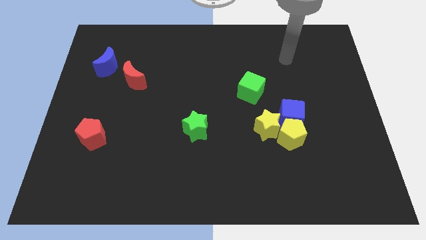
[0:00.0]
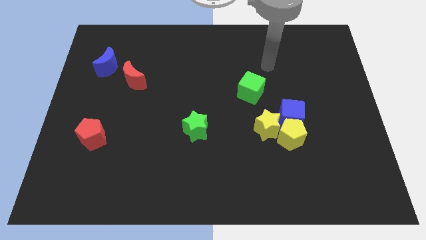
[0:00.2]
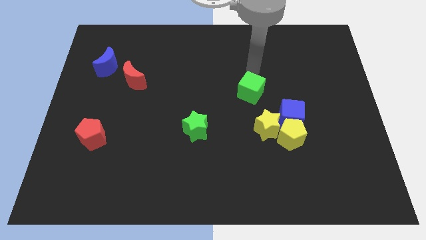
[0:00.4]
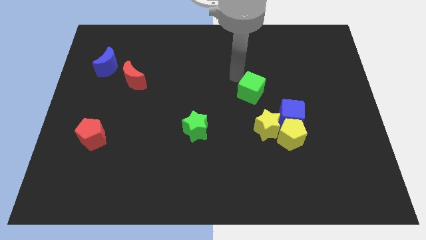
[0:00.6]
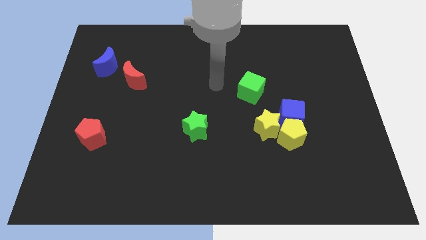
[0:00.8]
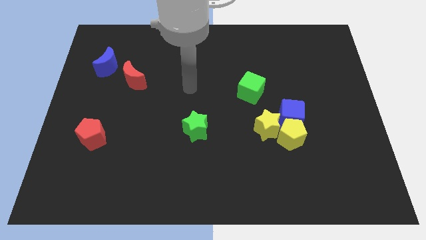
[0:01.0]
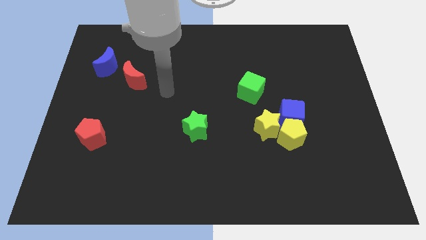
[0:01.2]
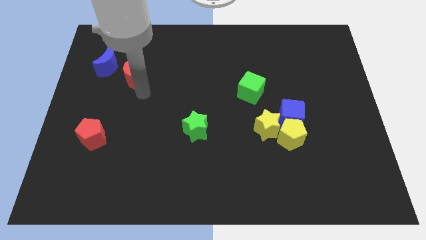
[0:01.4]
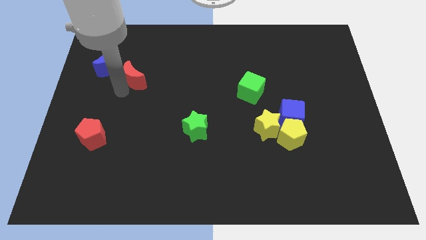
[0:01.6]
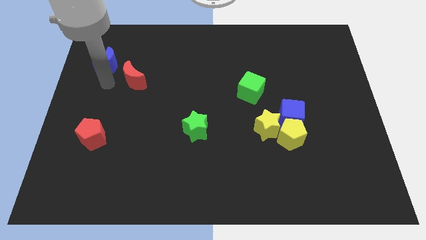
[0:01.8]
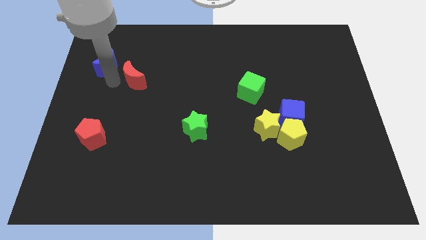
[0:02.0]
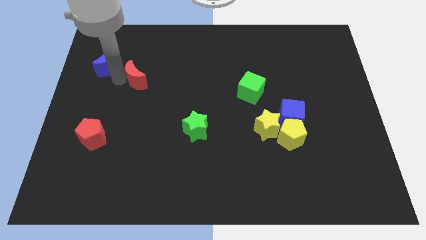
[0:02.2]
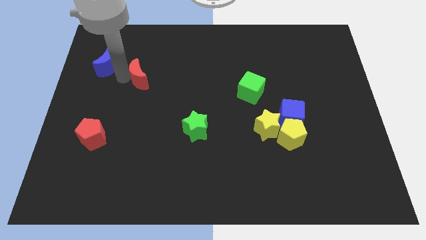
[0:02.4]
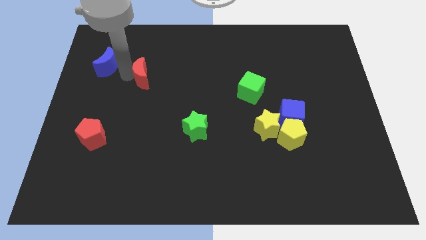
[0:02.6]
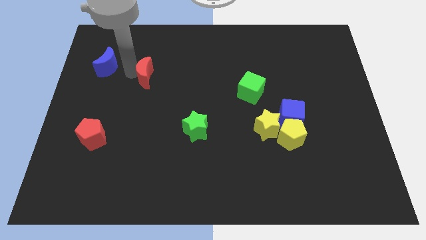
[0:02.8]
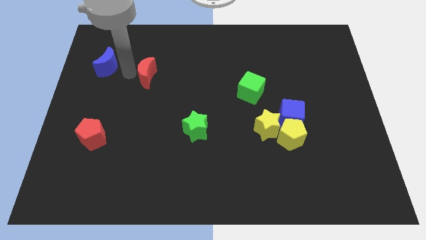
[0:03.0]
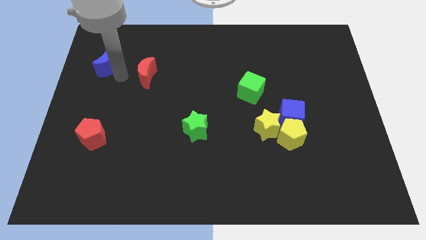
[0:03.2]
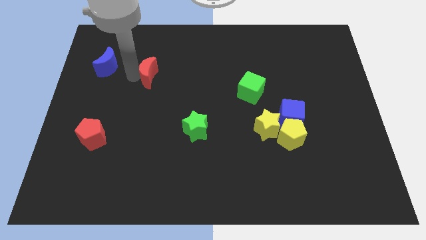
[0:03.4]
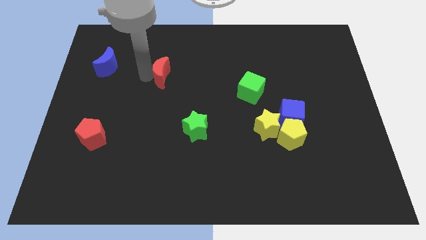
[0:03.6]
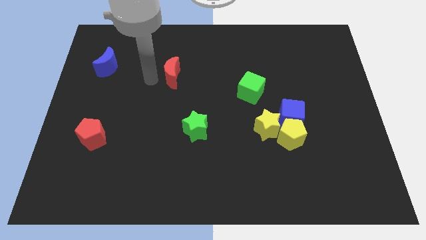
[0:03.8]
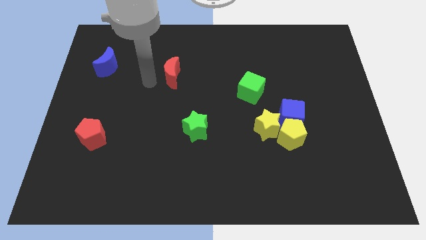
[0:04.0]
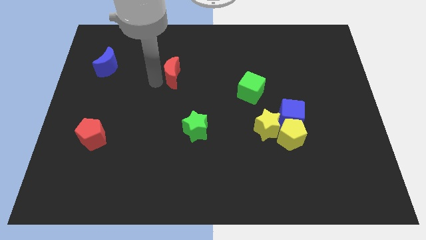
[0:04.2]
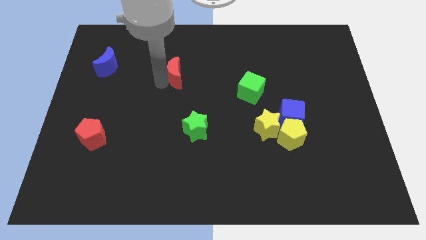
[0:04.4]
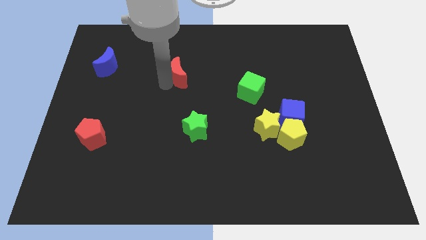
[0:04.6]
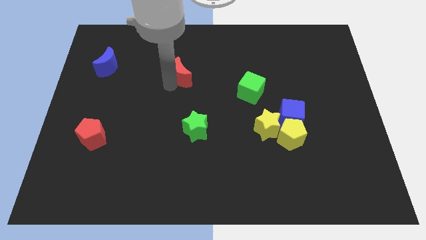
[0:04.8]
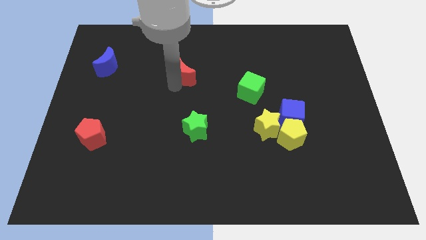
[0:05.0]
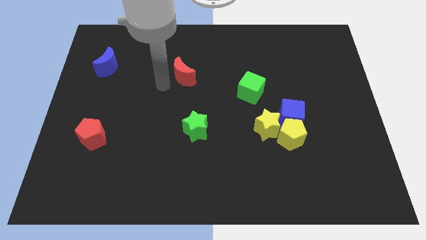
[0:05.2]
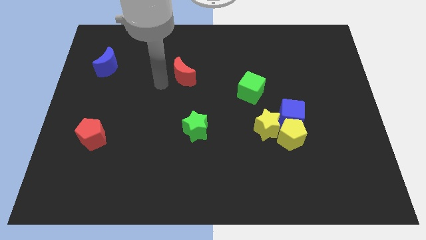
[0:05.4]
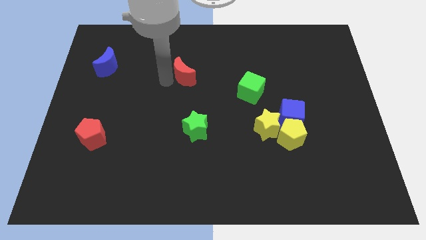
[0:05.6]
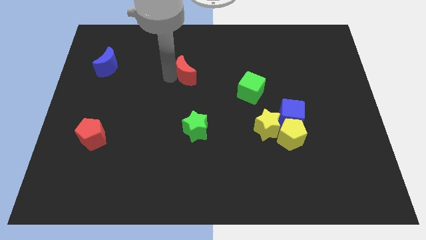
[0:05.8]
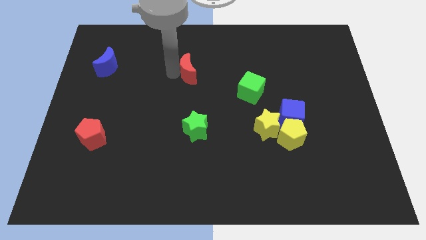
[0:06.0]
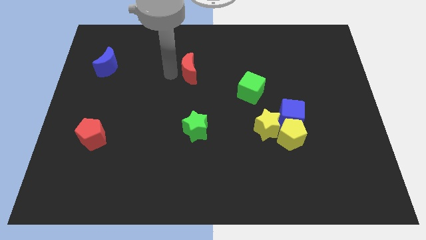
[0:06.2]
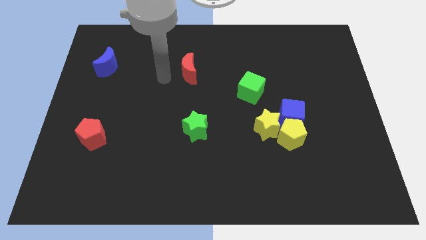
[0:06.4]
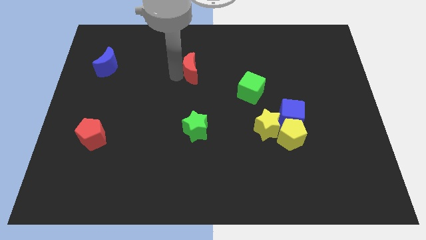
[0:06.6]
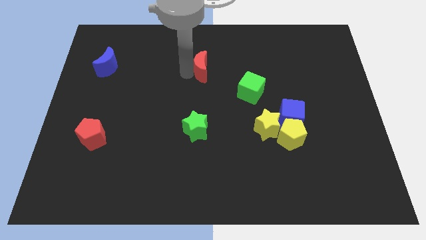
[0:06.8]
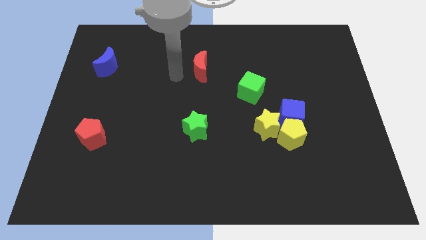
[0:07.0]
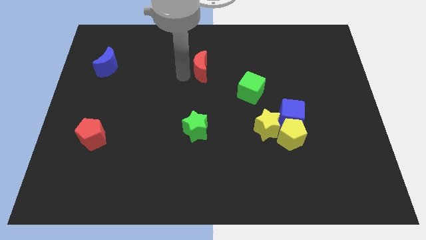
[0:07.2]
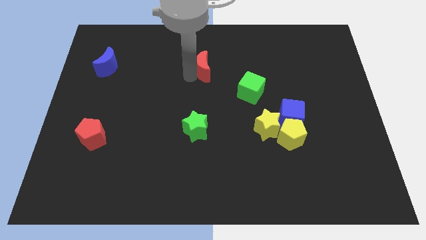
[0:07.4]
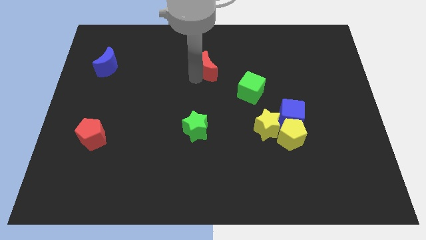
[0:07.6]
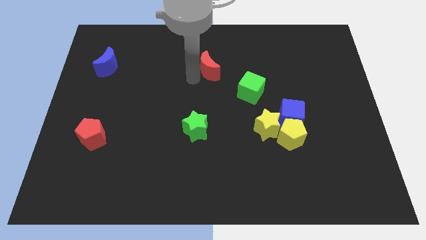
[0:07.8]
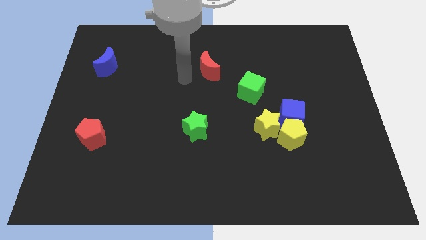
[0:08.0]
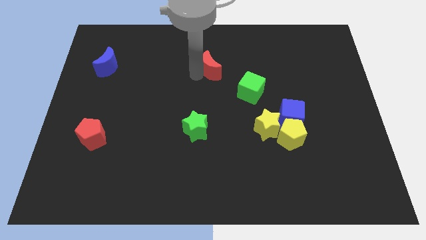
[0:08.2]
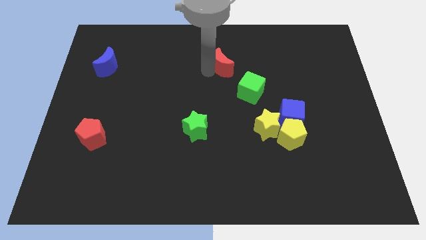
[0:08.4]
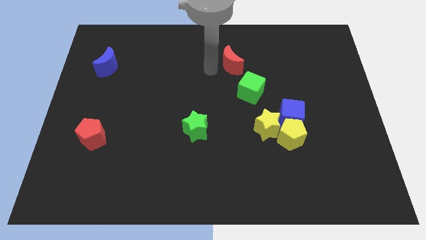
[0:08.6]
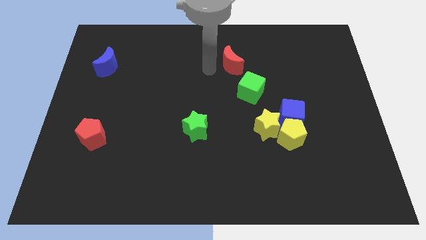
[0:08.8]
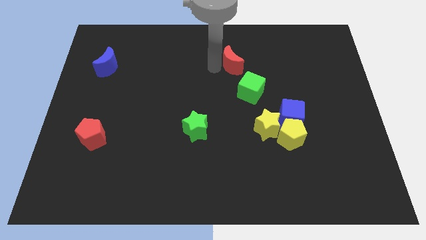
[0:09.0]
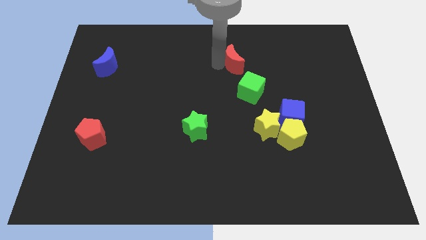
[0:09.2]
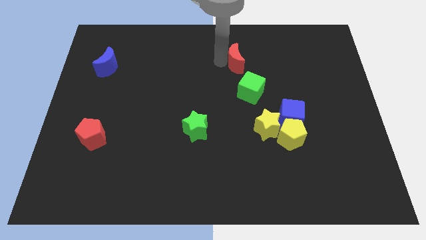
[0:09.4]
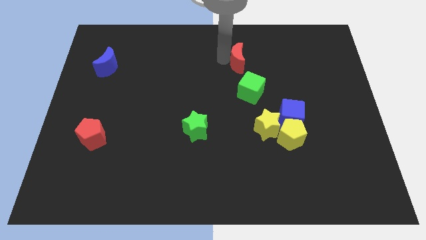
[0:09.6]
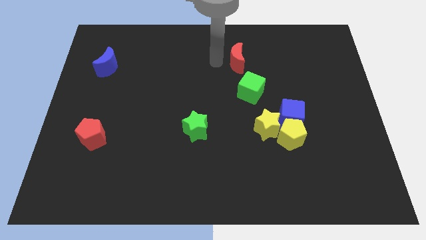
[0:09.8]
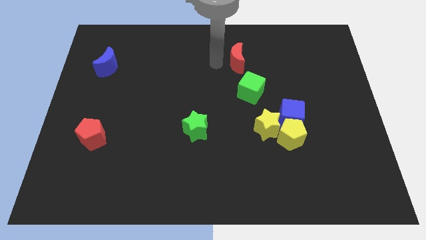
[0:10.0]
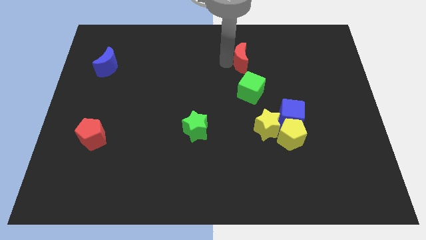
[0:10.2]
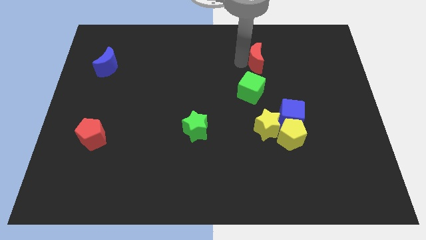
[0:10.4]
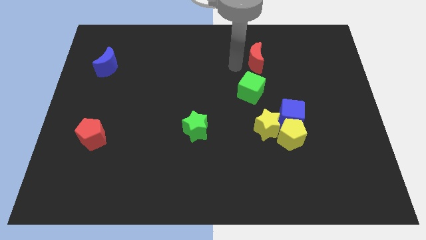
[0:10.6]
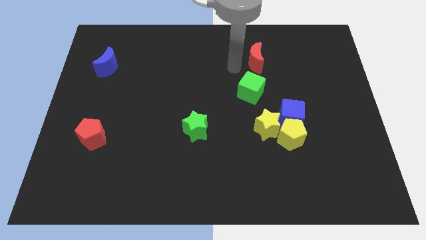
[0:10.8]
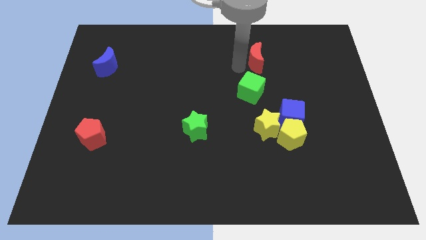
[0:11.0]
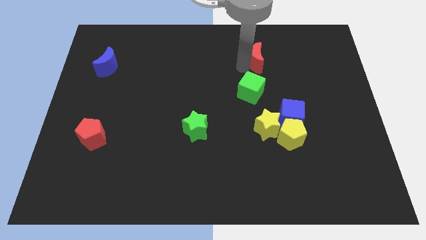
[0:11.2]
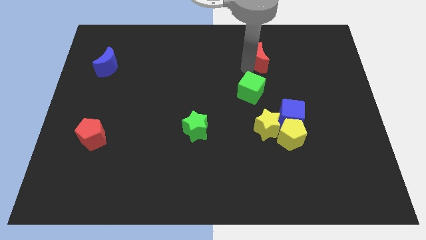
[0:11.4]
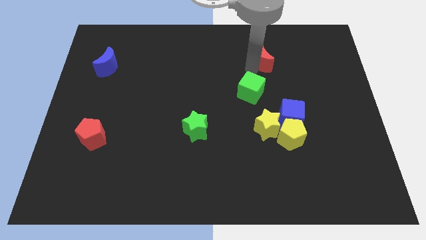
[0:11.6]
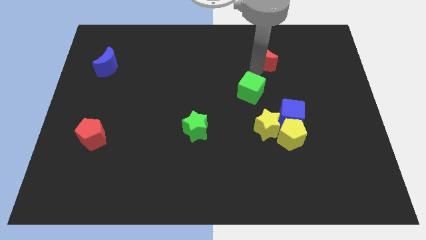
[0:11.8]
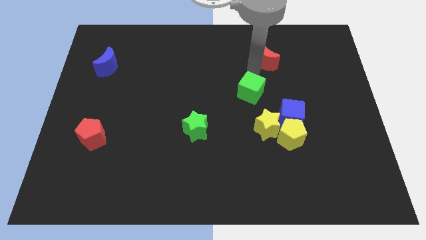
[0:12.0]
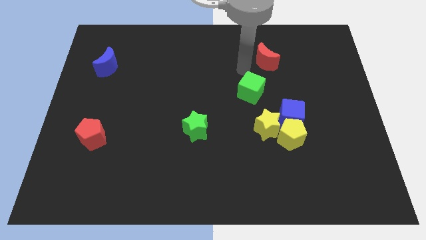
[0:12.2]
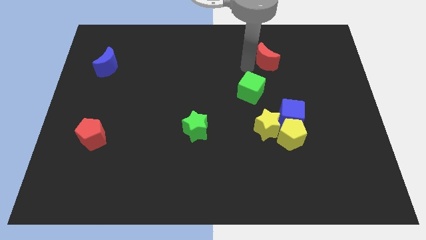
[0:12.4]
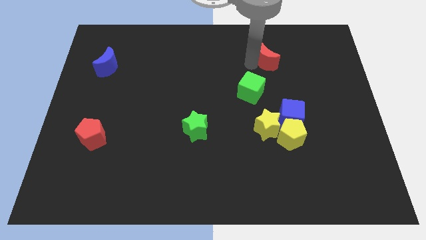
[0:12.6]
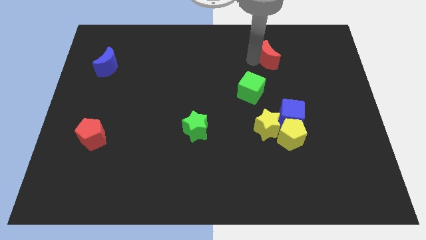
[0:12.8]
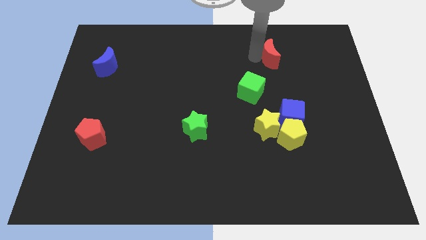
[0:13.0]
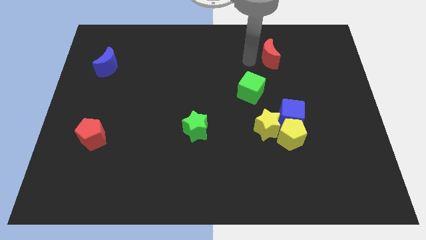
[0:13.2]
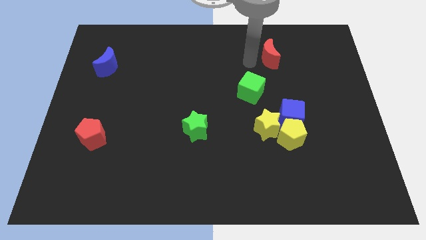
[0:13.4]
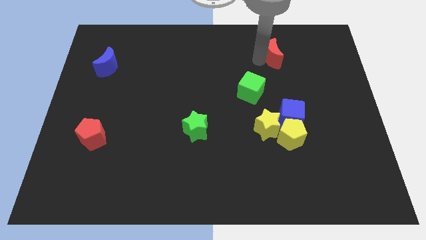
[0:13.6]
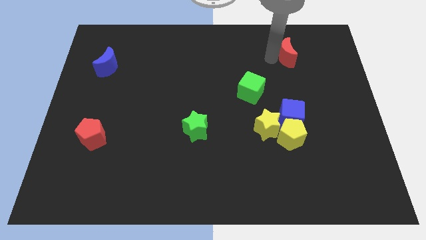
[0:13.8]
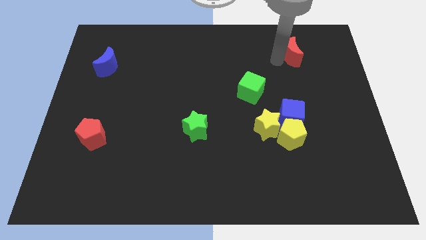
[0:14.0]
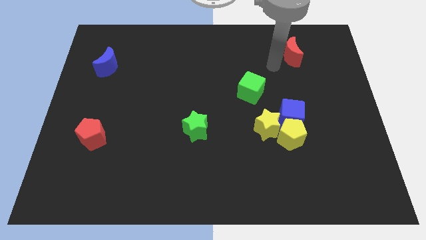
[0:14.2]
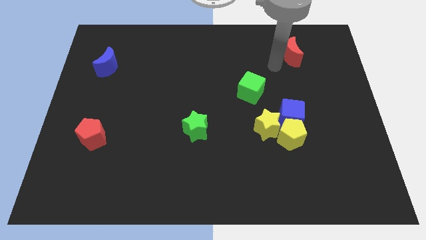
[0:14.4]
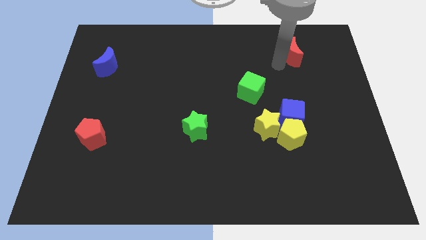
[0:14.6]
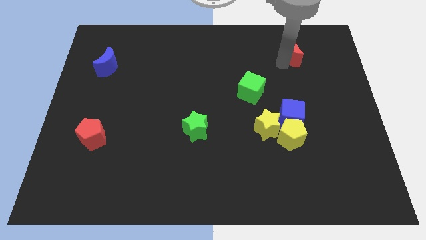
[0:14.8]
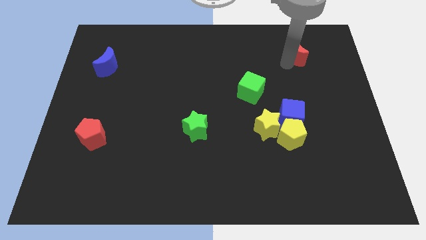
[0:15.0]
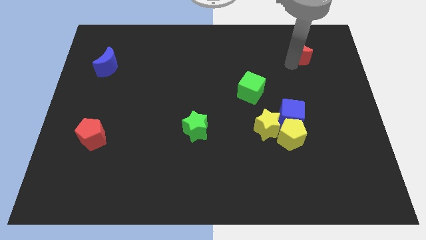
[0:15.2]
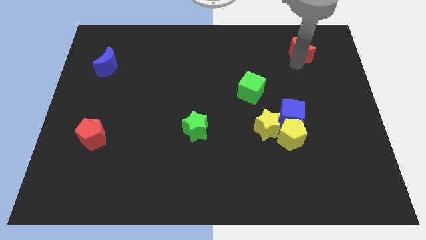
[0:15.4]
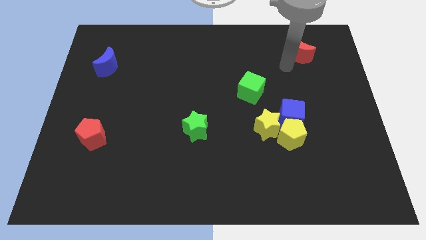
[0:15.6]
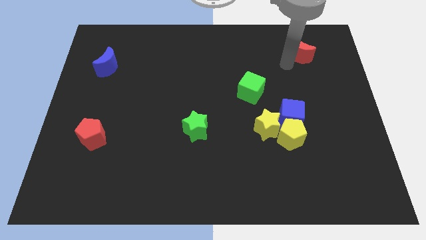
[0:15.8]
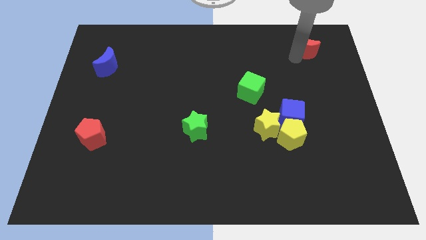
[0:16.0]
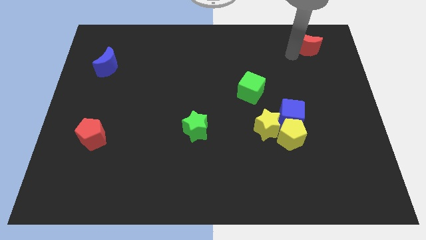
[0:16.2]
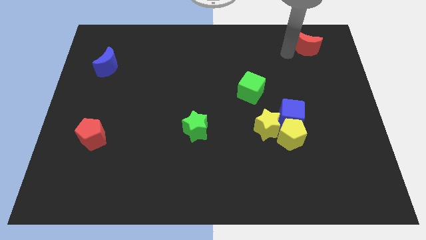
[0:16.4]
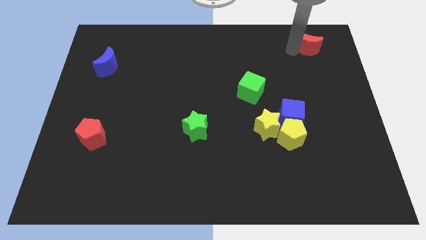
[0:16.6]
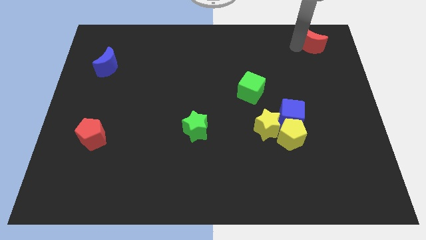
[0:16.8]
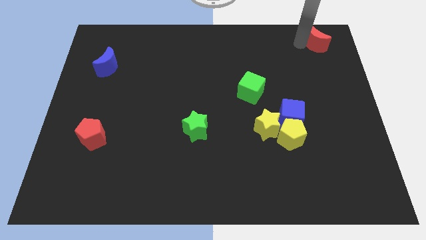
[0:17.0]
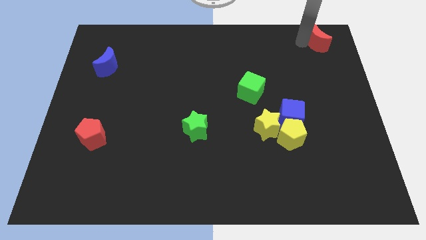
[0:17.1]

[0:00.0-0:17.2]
put the red moon to the top right
